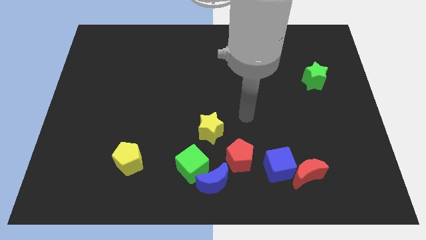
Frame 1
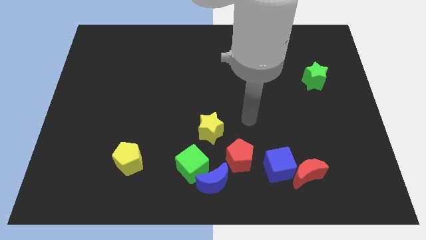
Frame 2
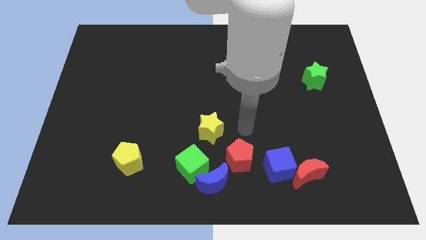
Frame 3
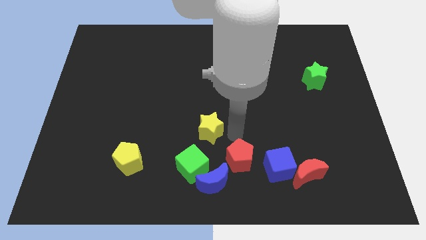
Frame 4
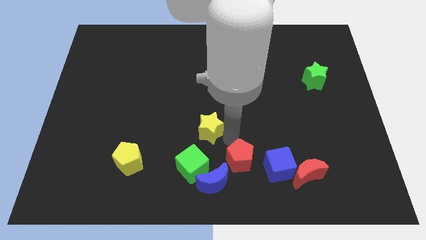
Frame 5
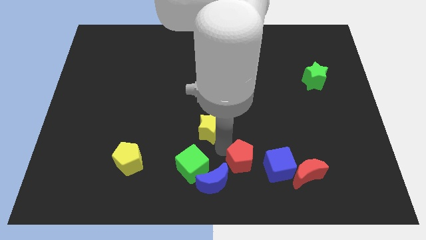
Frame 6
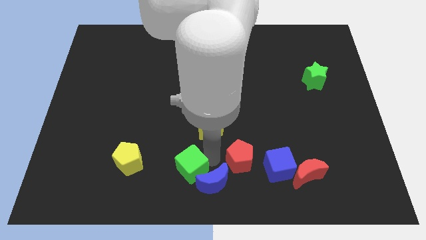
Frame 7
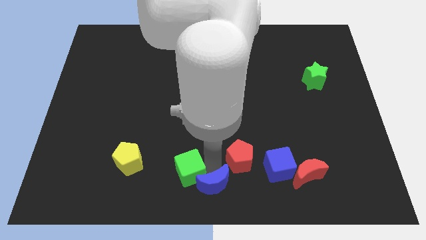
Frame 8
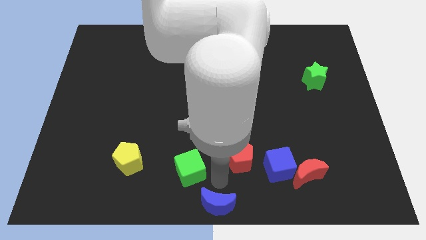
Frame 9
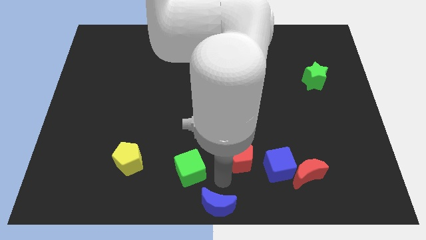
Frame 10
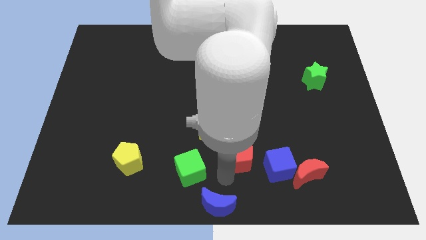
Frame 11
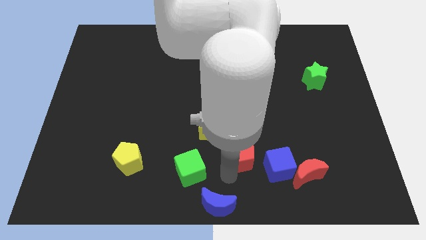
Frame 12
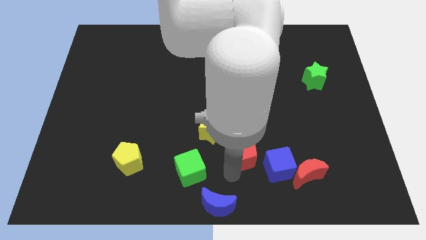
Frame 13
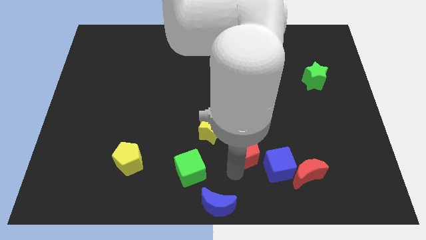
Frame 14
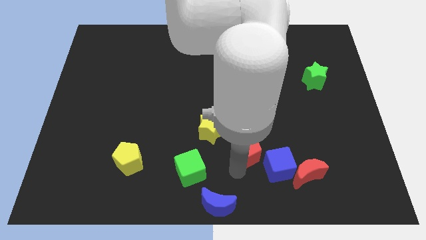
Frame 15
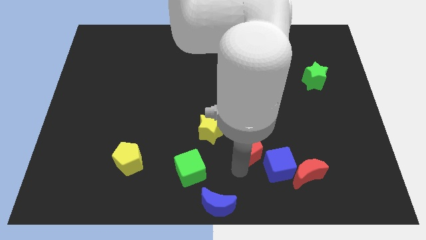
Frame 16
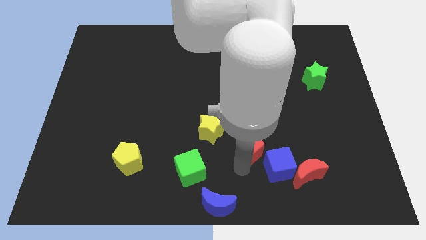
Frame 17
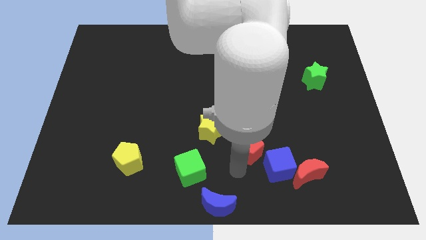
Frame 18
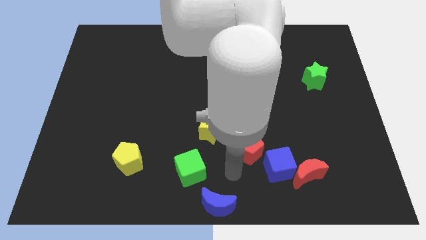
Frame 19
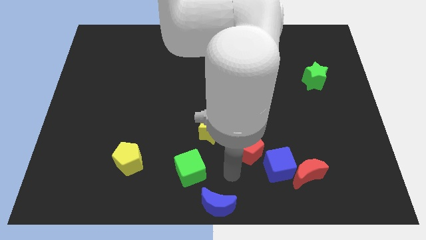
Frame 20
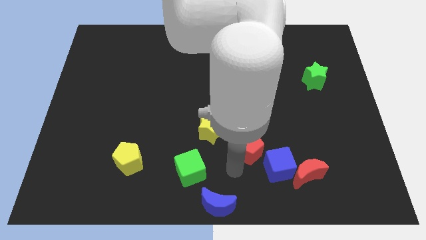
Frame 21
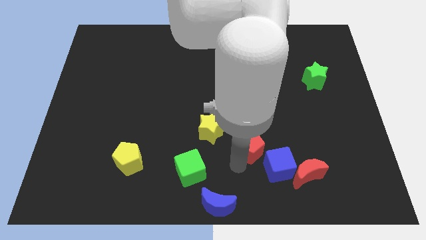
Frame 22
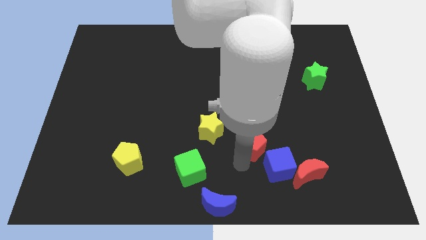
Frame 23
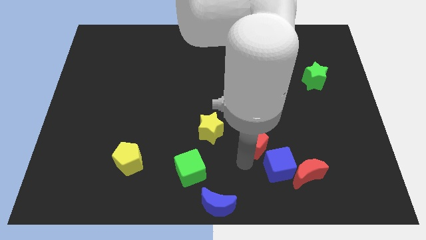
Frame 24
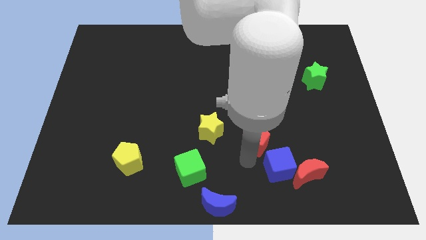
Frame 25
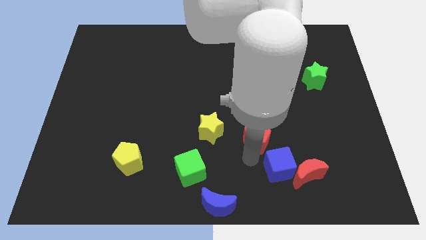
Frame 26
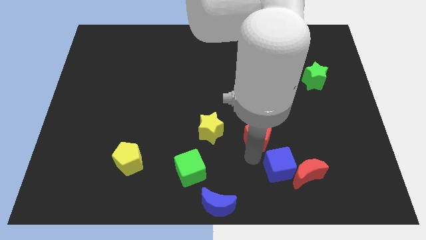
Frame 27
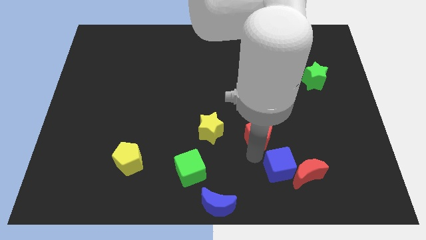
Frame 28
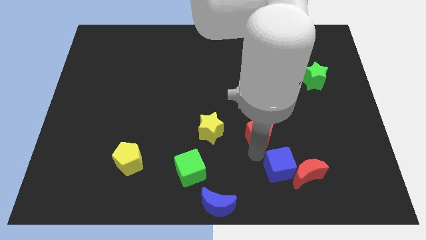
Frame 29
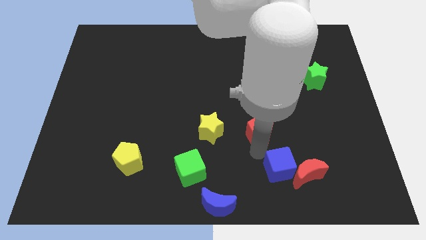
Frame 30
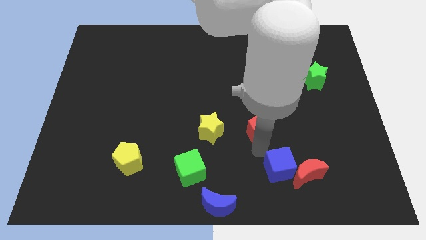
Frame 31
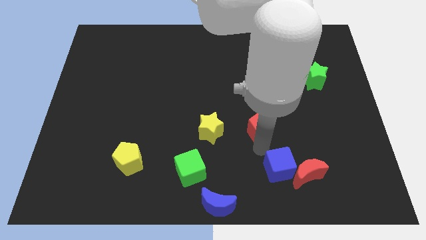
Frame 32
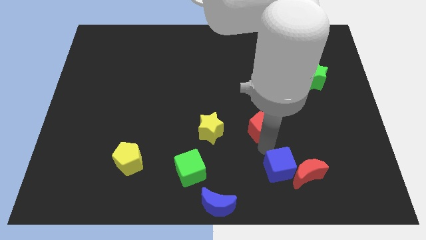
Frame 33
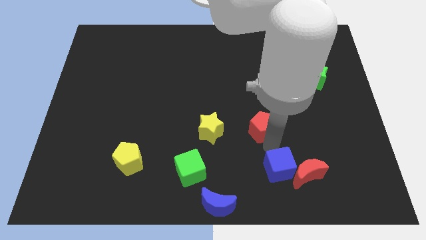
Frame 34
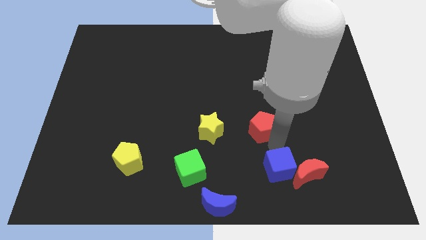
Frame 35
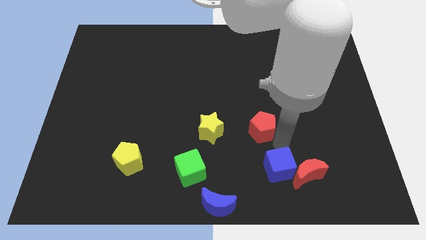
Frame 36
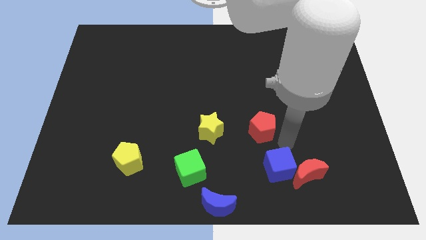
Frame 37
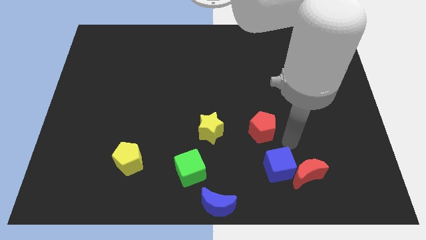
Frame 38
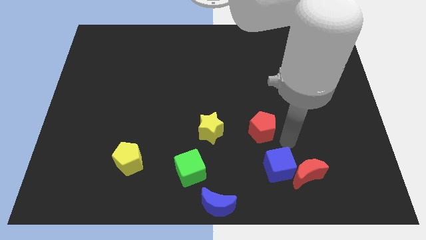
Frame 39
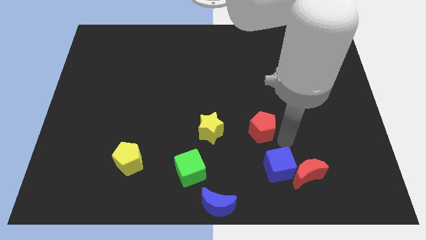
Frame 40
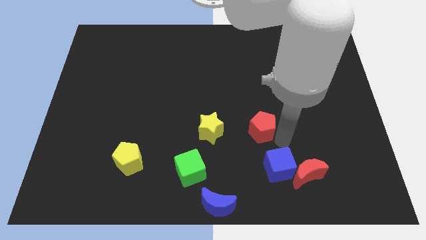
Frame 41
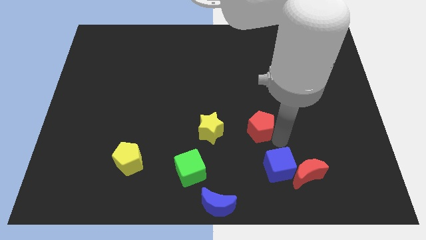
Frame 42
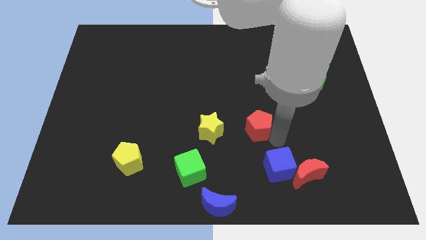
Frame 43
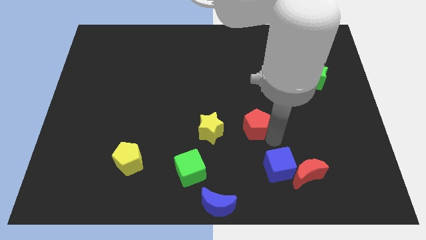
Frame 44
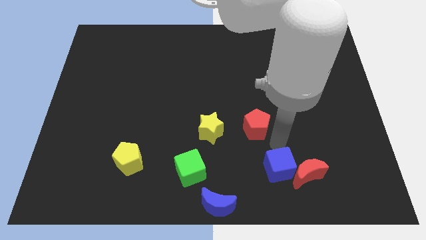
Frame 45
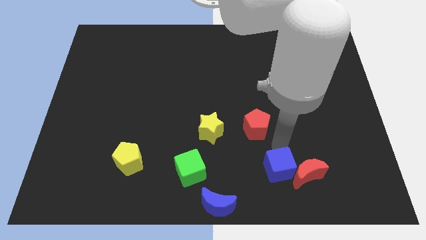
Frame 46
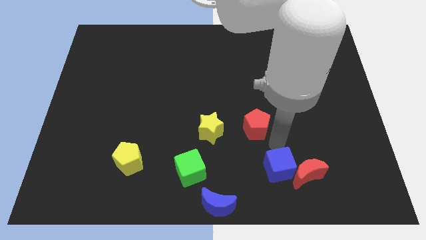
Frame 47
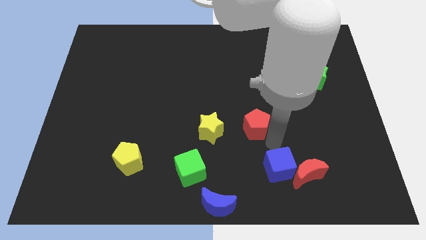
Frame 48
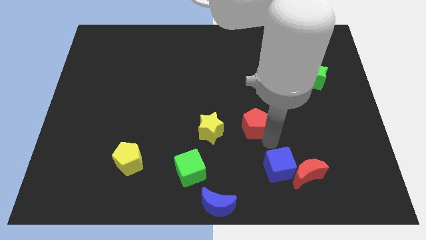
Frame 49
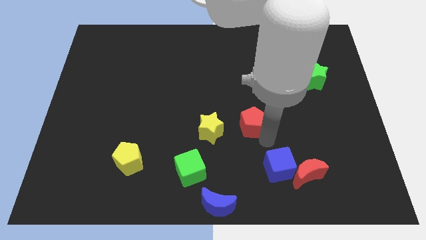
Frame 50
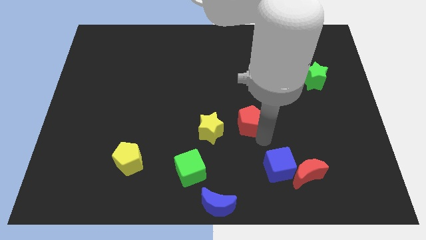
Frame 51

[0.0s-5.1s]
slide the red pentagon to the top right of the yellow star

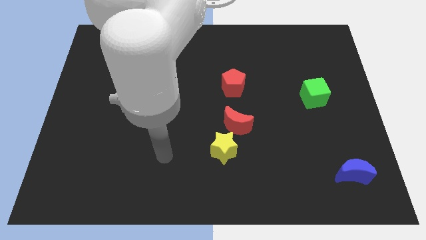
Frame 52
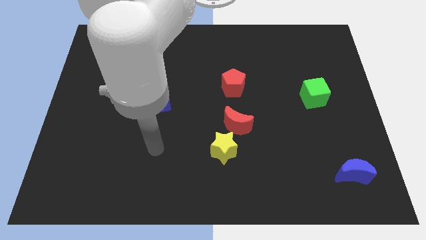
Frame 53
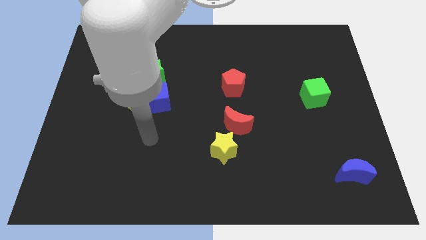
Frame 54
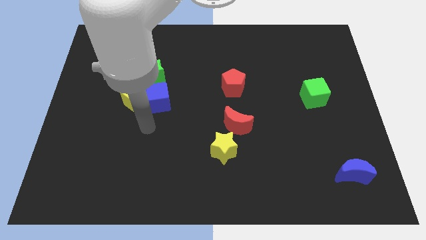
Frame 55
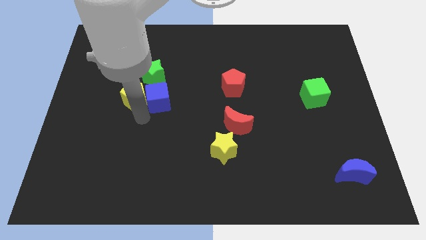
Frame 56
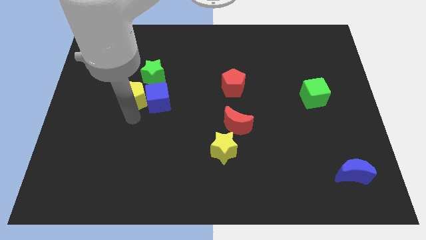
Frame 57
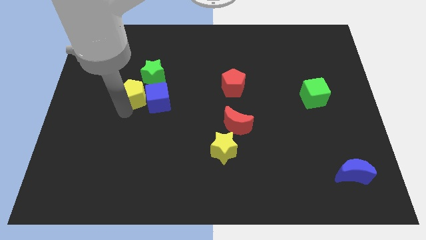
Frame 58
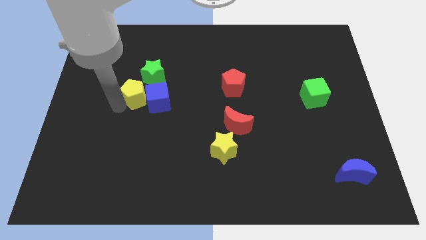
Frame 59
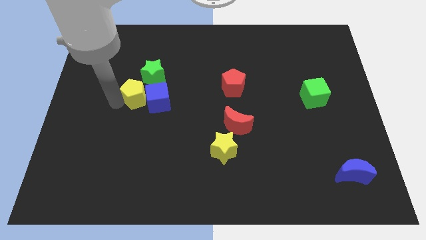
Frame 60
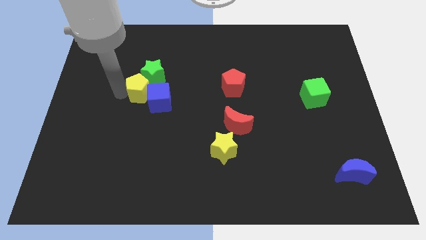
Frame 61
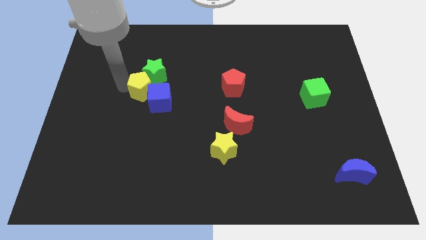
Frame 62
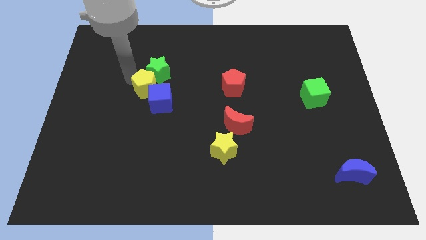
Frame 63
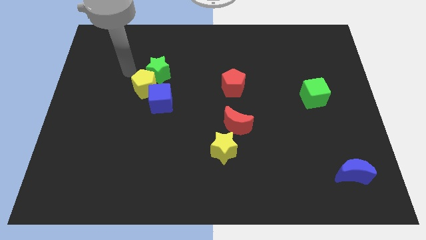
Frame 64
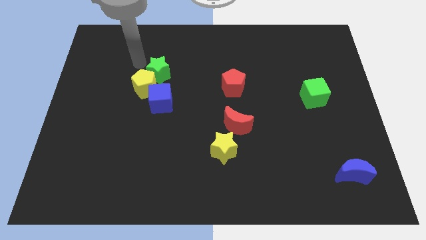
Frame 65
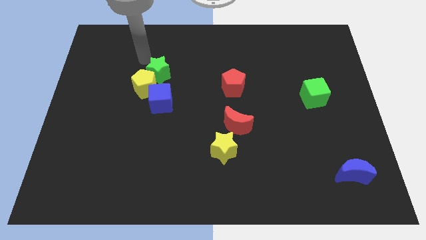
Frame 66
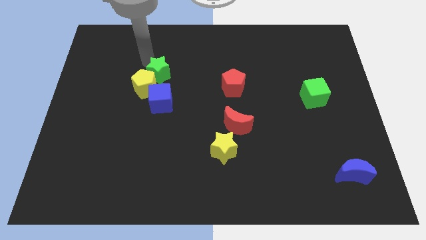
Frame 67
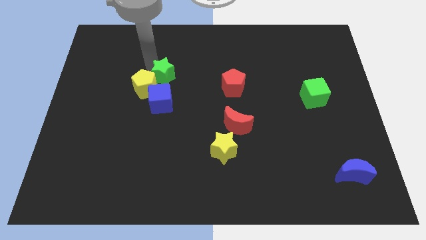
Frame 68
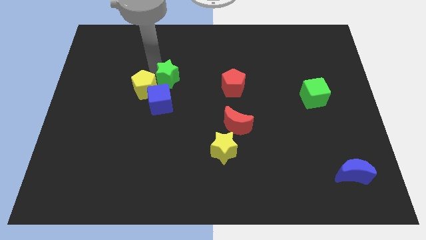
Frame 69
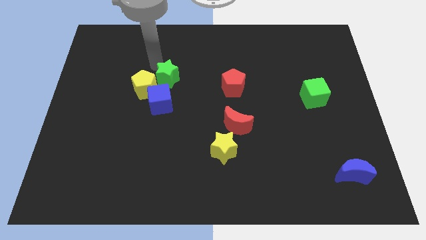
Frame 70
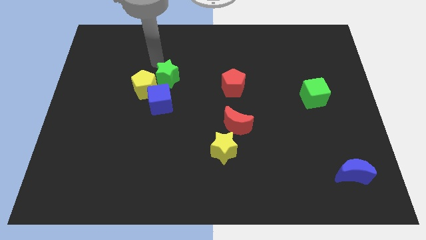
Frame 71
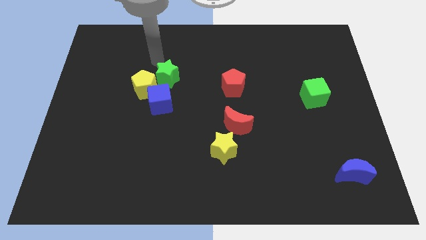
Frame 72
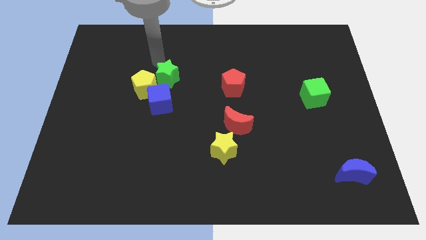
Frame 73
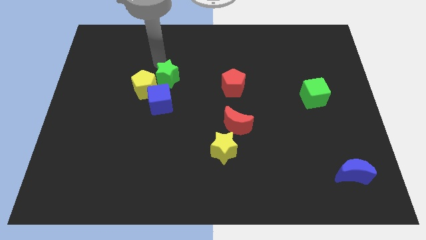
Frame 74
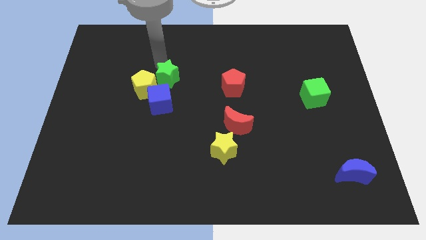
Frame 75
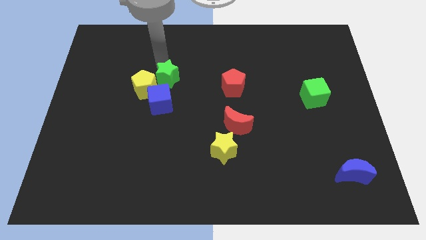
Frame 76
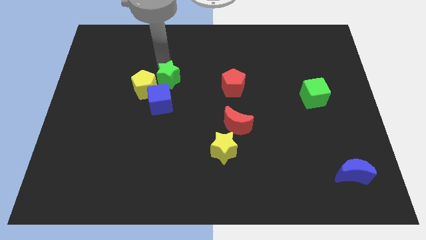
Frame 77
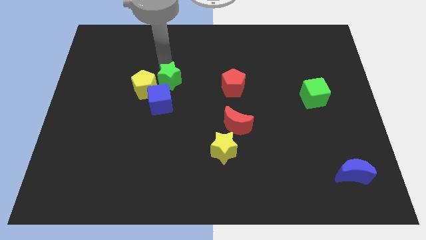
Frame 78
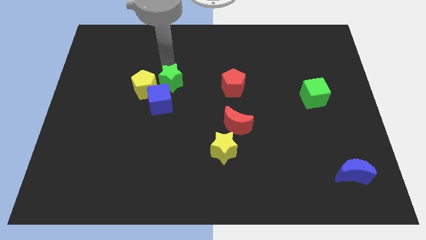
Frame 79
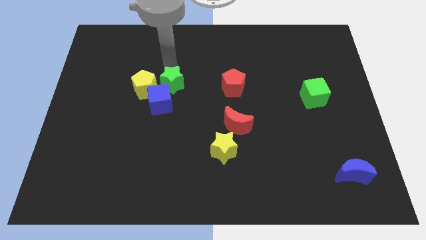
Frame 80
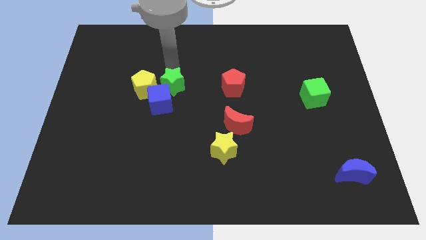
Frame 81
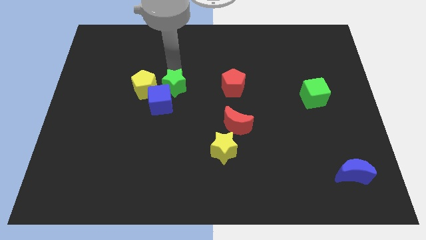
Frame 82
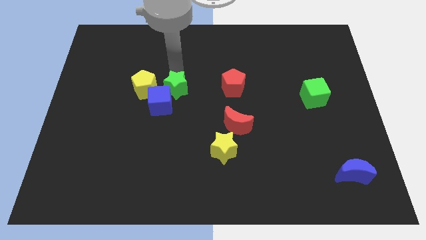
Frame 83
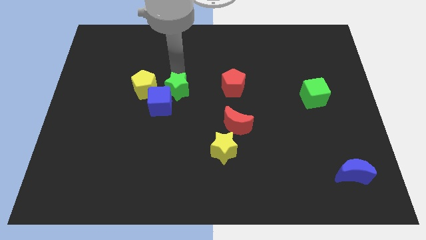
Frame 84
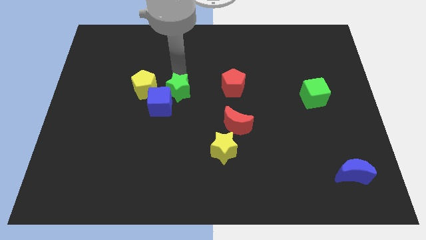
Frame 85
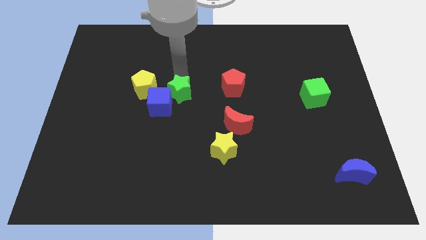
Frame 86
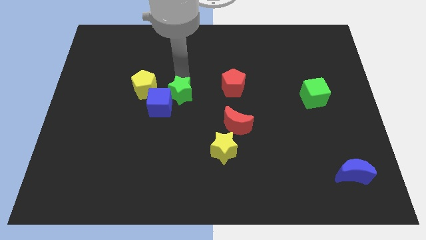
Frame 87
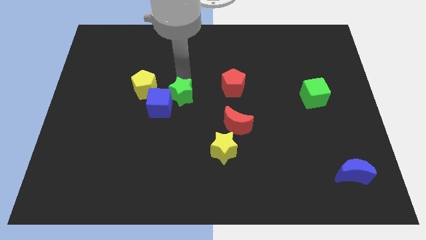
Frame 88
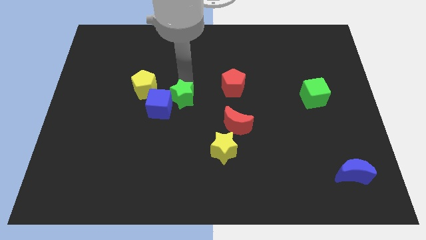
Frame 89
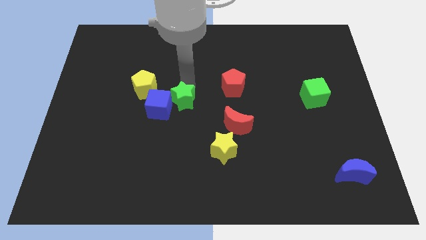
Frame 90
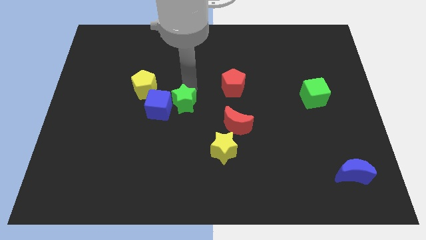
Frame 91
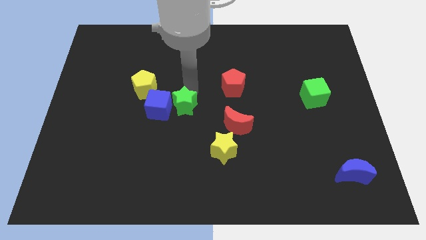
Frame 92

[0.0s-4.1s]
move the green star to the bottom right side of the blue cube
